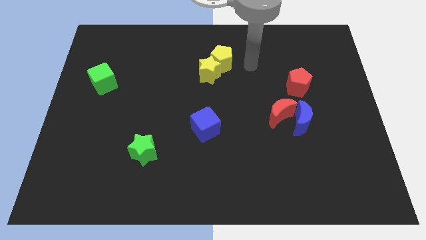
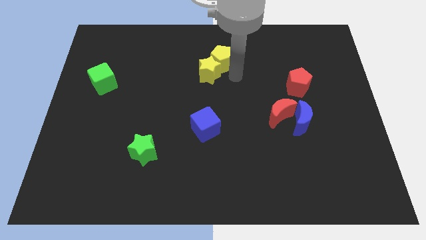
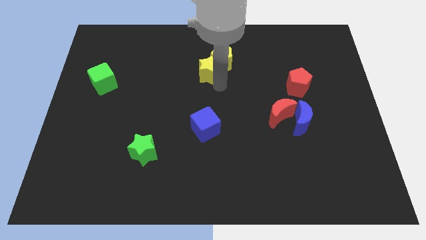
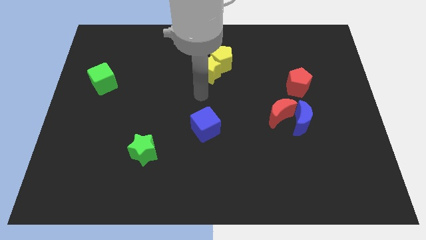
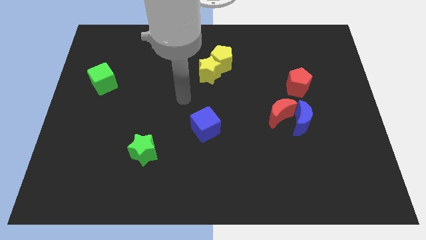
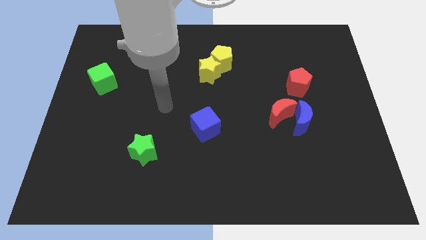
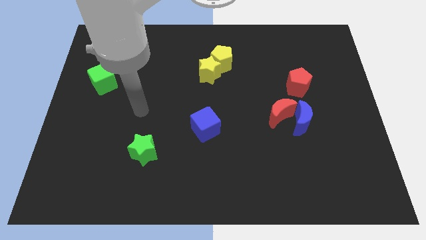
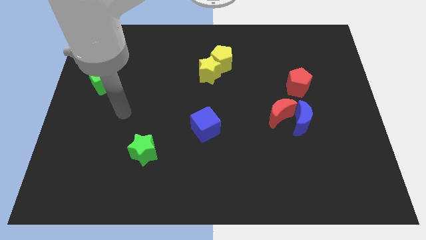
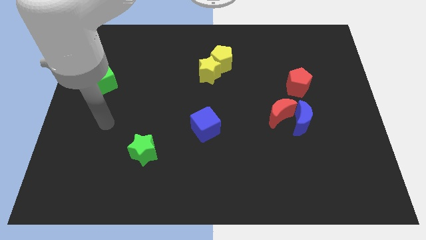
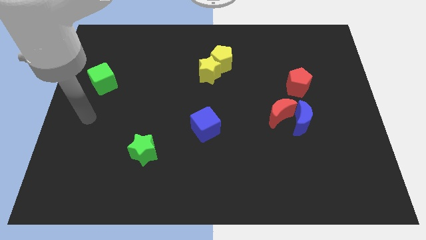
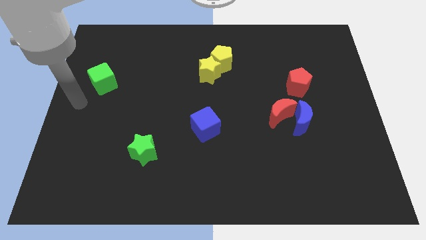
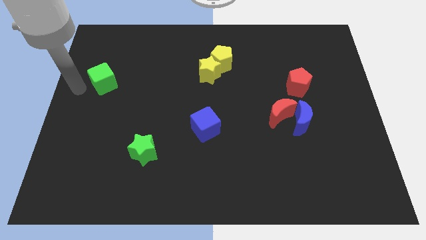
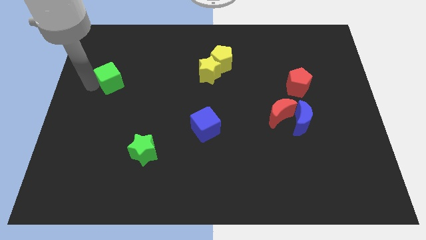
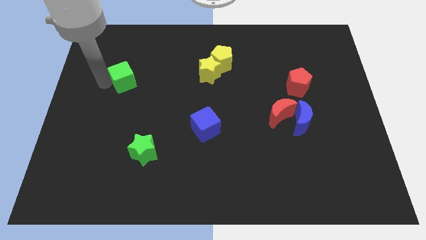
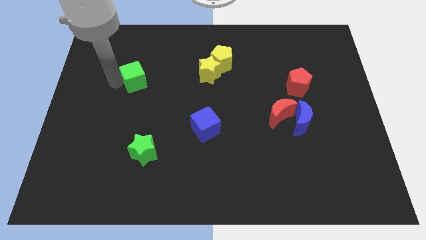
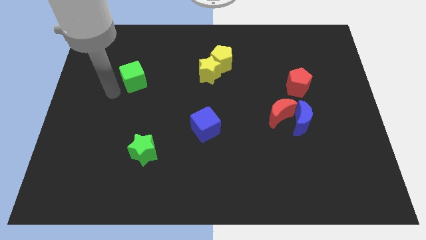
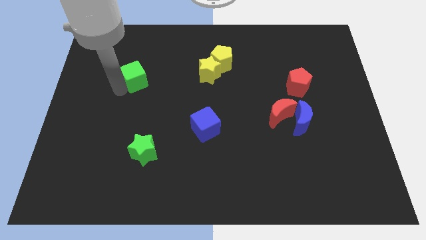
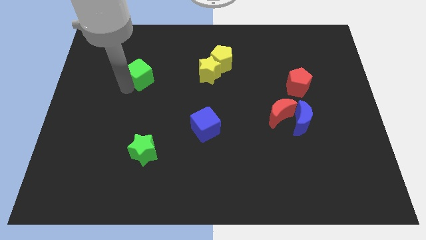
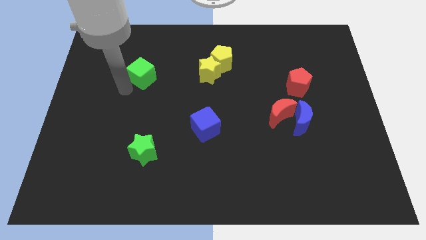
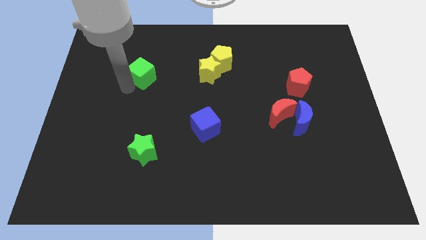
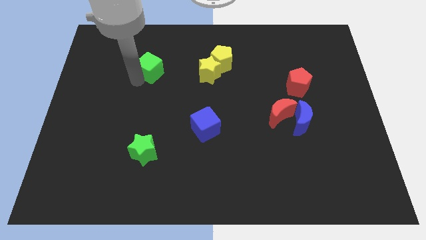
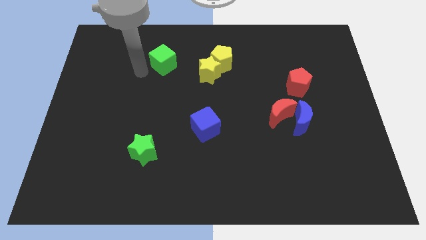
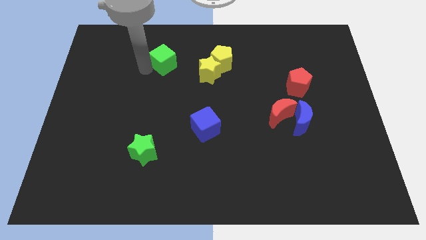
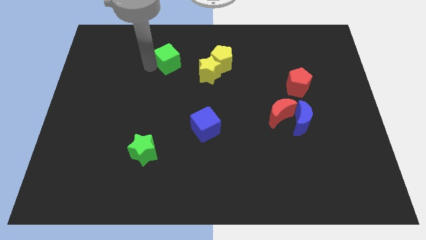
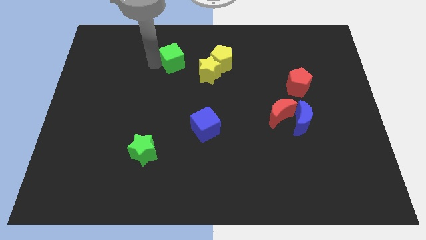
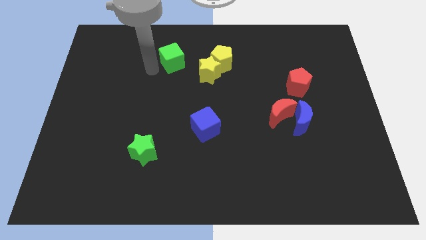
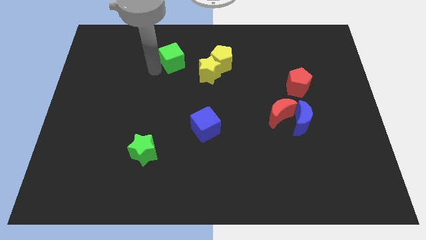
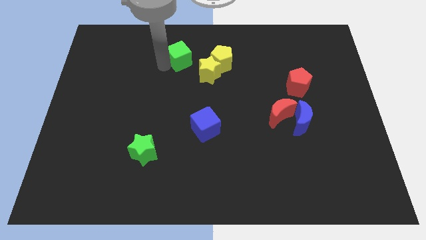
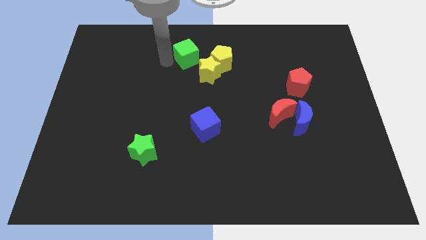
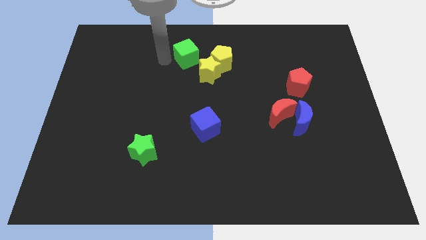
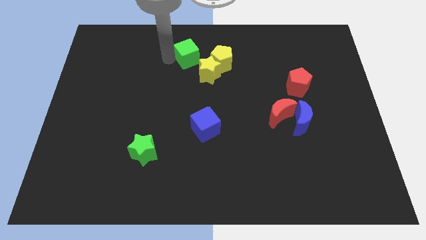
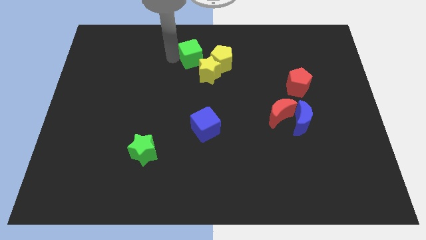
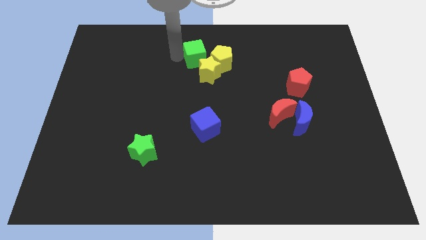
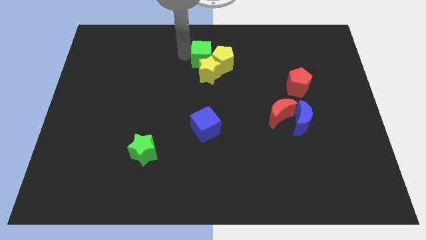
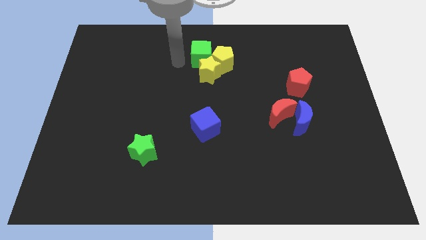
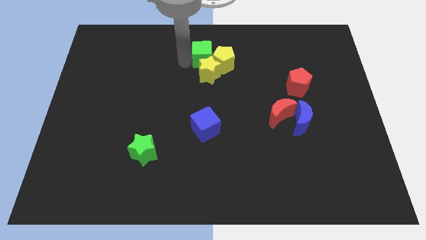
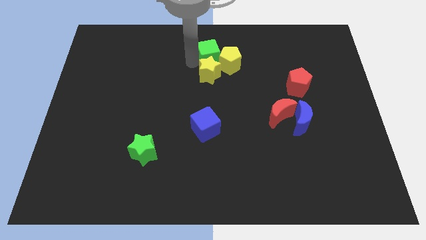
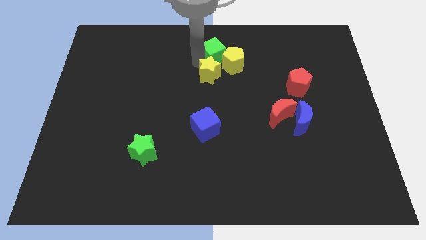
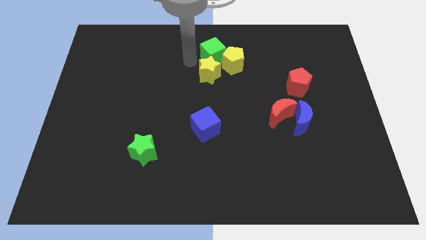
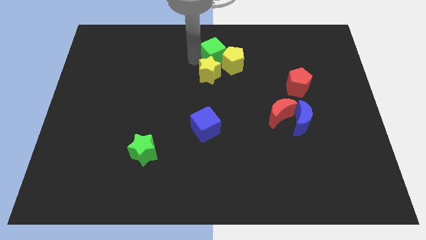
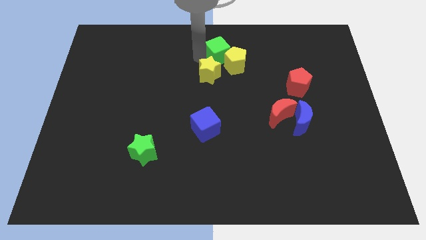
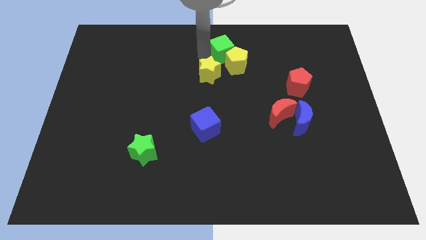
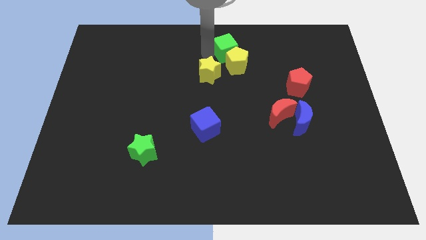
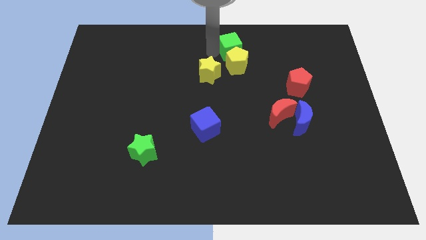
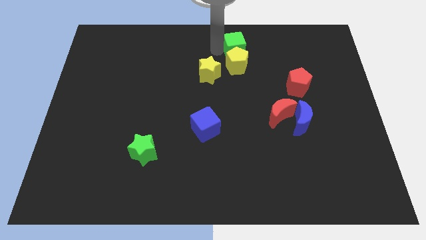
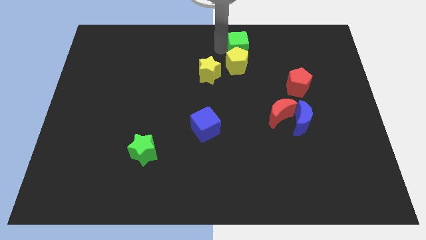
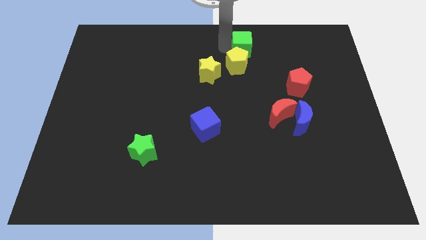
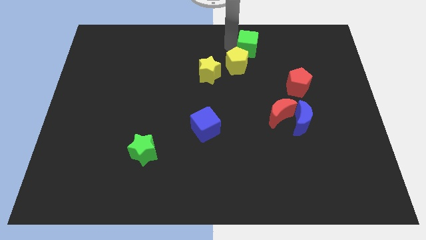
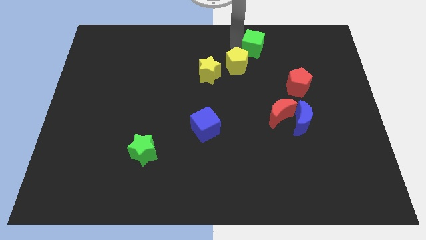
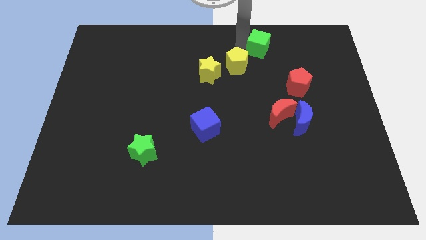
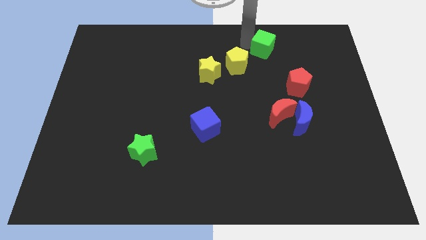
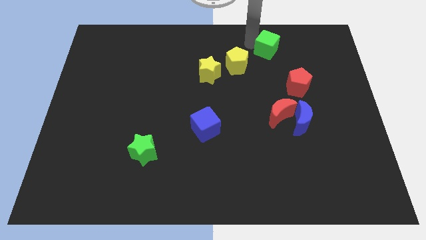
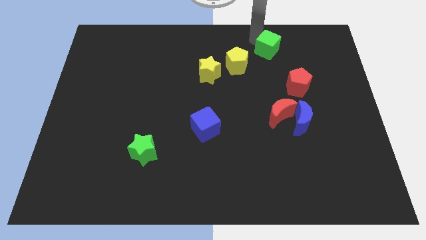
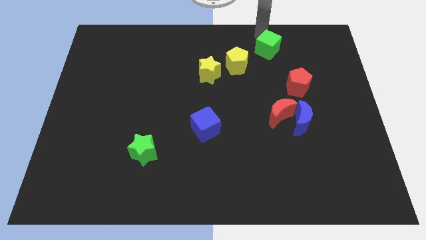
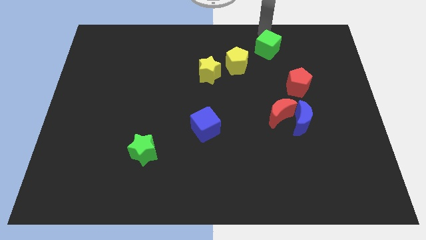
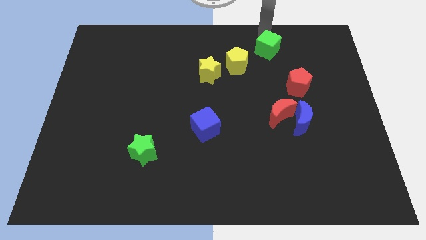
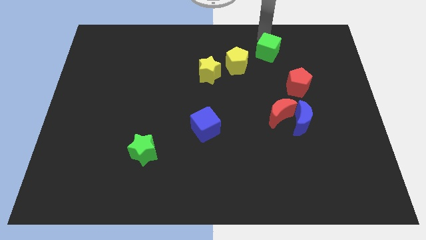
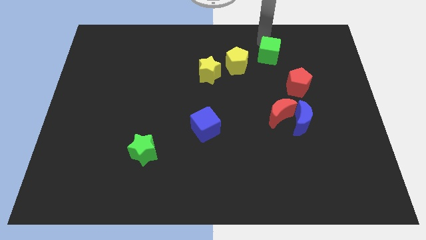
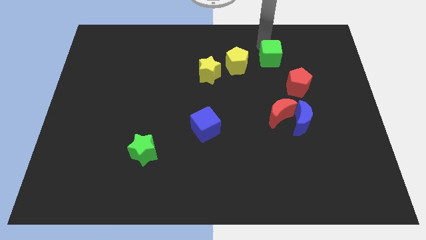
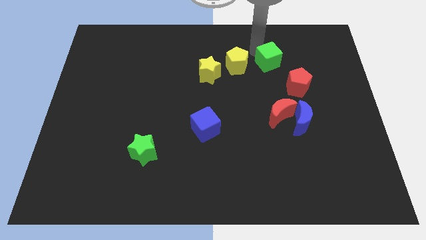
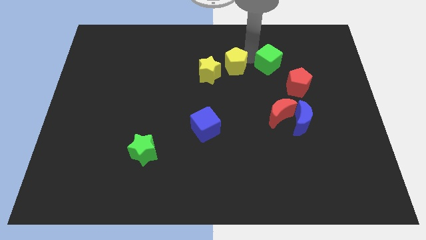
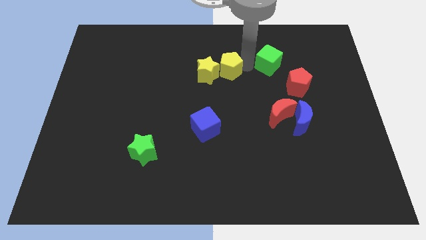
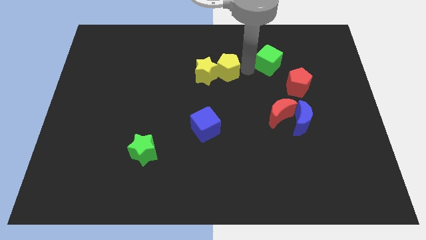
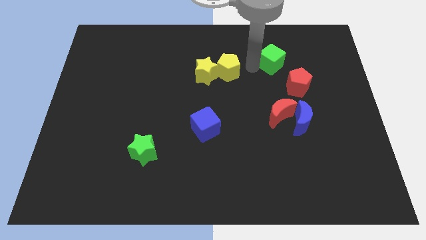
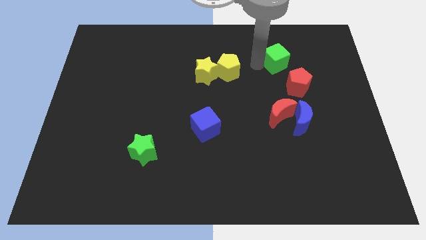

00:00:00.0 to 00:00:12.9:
push the green cube to the top side of the red pentagon
